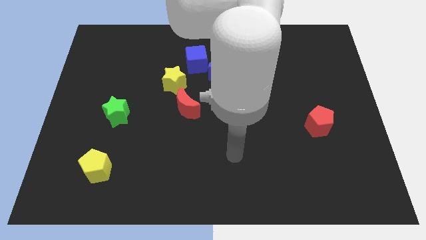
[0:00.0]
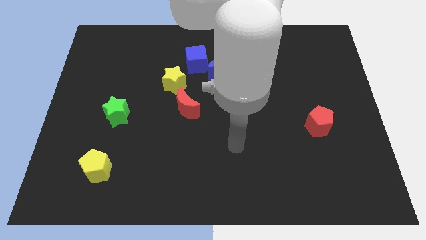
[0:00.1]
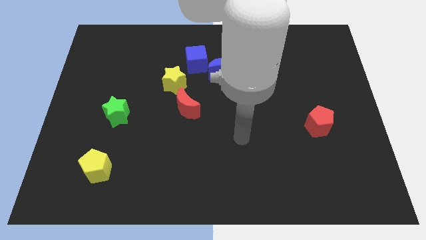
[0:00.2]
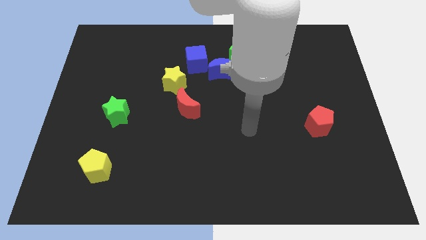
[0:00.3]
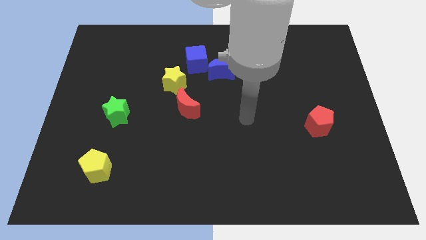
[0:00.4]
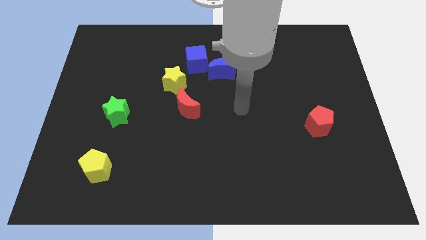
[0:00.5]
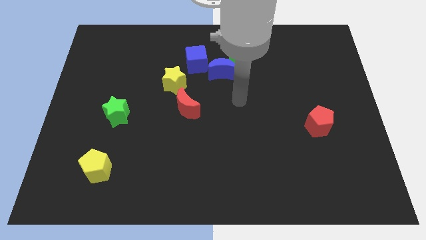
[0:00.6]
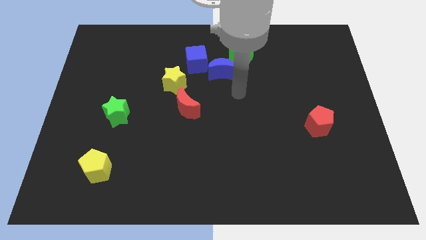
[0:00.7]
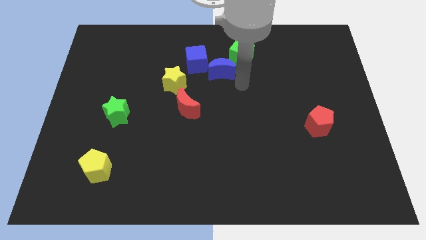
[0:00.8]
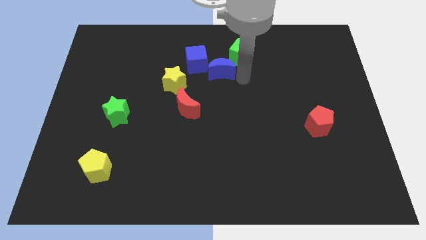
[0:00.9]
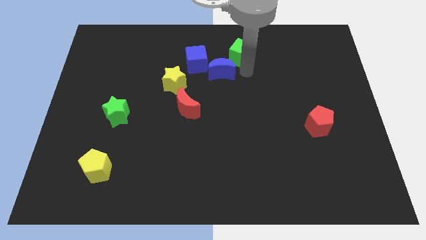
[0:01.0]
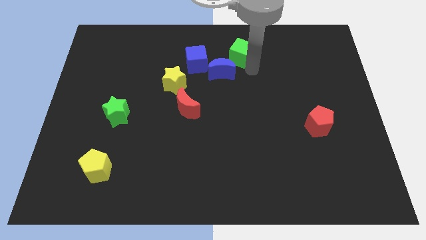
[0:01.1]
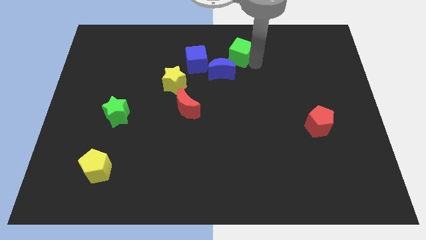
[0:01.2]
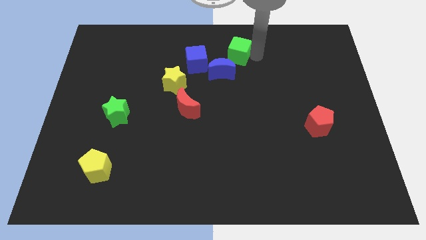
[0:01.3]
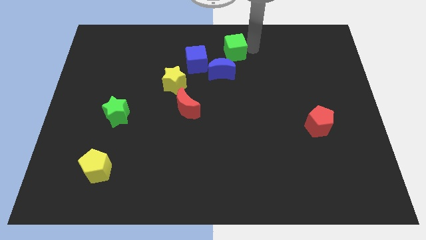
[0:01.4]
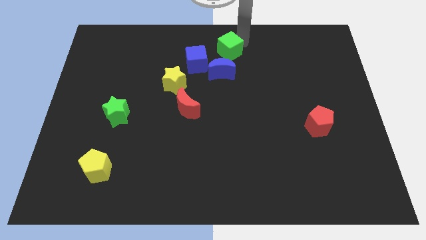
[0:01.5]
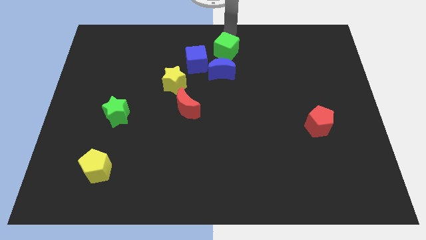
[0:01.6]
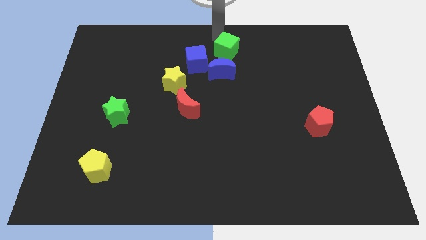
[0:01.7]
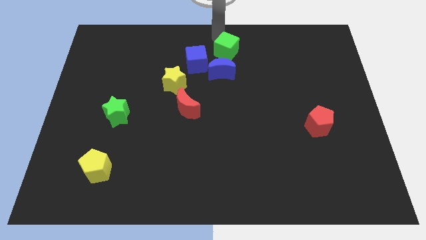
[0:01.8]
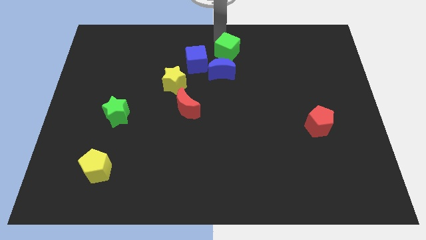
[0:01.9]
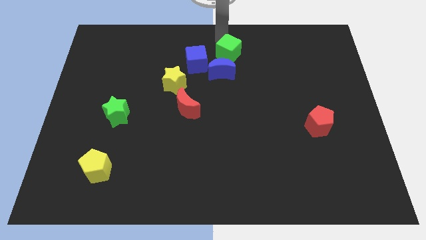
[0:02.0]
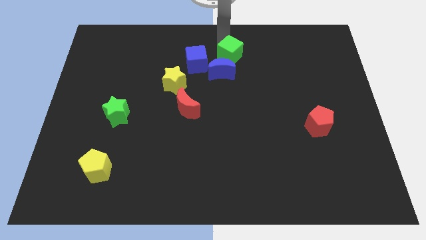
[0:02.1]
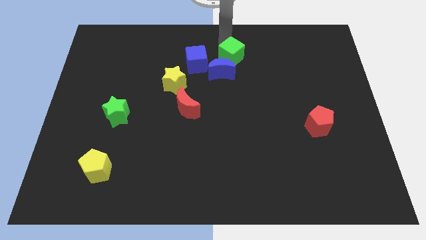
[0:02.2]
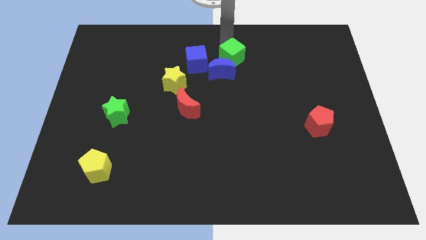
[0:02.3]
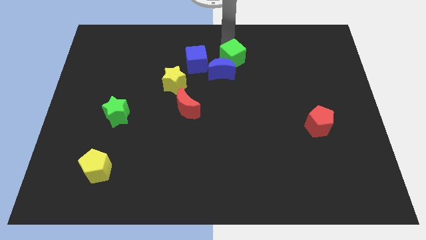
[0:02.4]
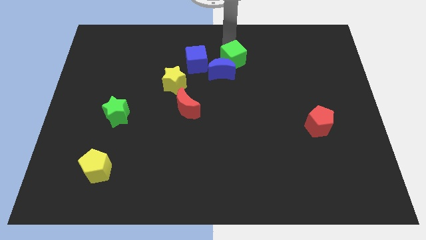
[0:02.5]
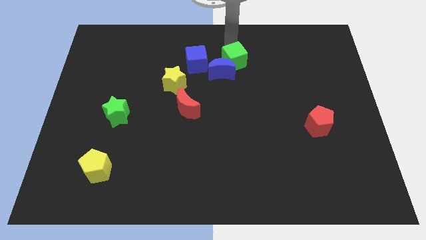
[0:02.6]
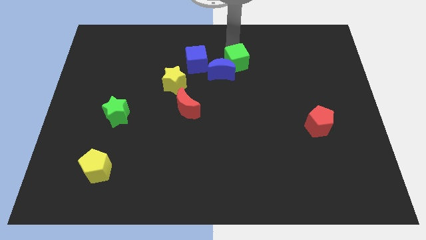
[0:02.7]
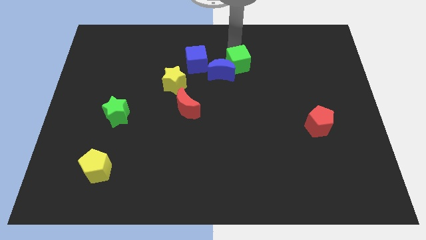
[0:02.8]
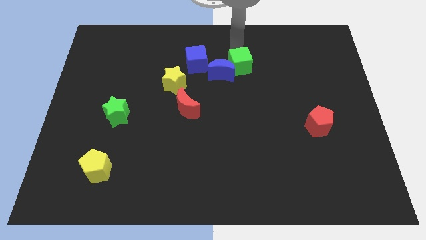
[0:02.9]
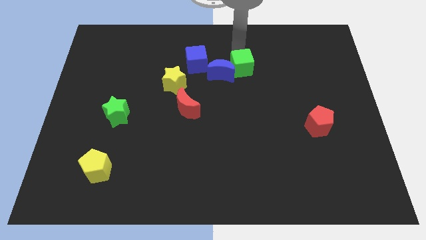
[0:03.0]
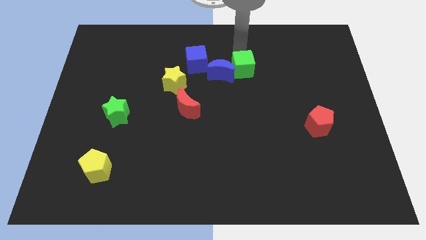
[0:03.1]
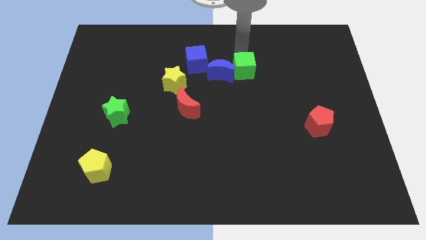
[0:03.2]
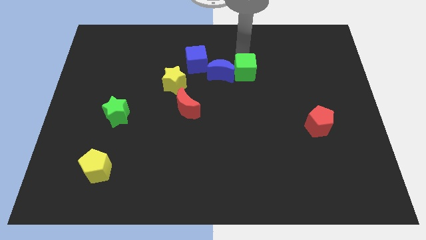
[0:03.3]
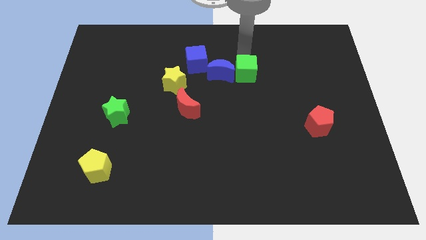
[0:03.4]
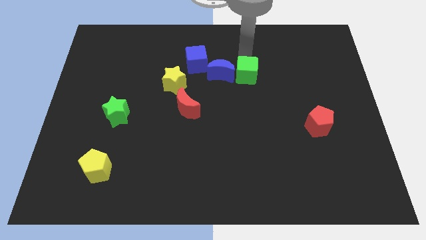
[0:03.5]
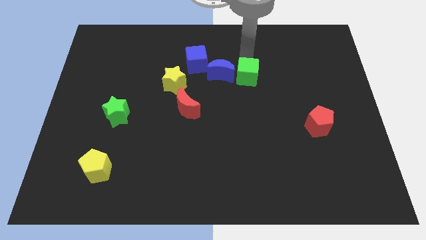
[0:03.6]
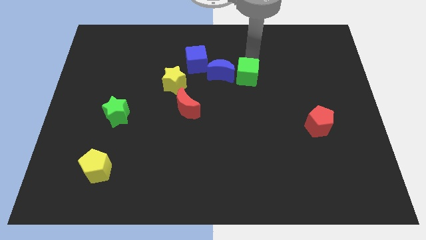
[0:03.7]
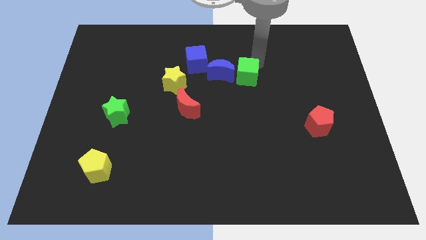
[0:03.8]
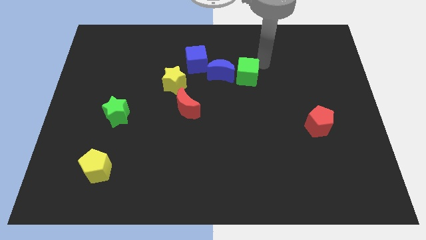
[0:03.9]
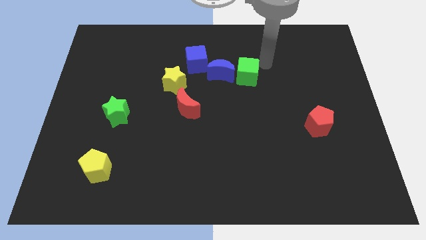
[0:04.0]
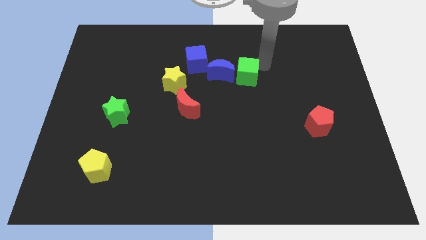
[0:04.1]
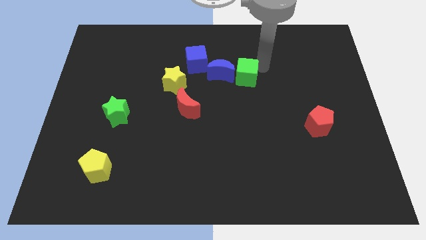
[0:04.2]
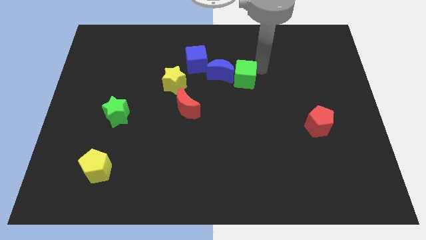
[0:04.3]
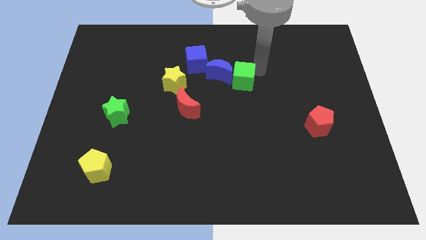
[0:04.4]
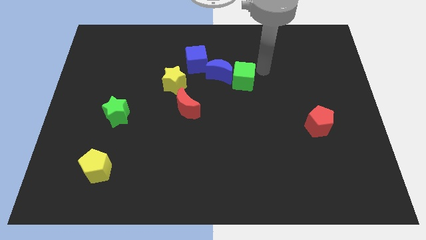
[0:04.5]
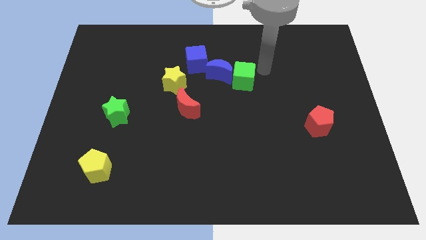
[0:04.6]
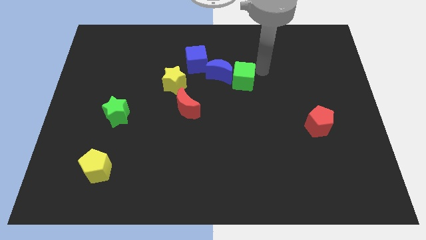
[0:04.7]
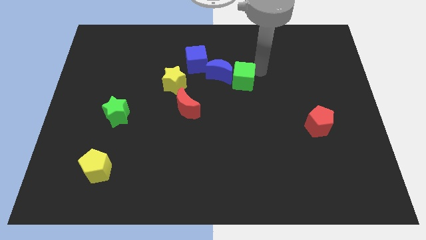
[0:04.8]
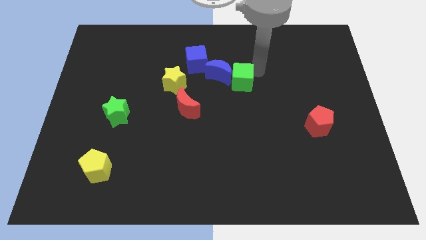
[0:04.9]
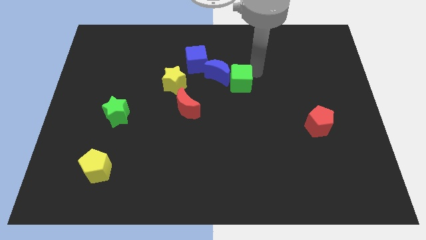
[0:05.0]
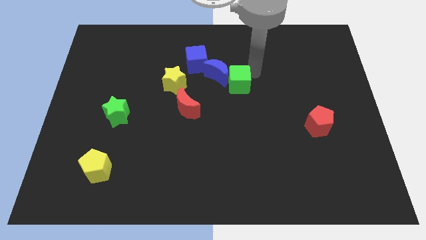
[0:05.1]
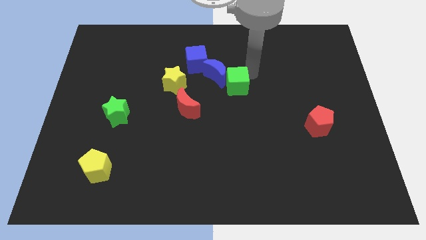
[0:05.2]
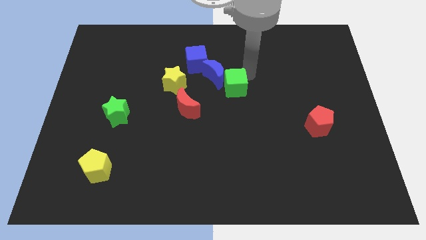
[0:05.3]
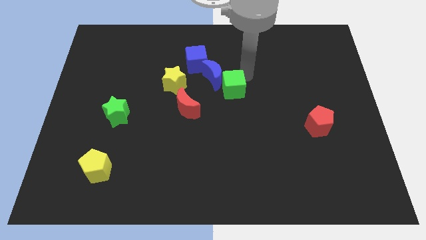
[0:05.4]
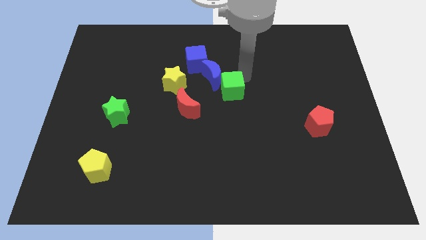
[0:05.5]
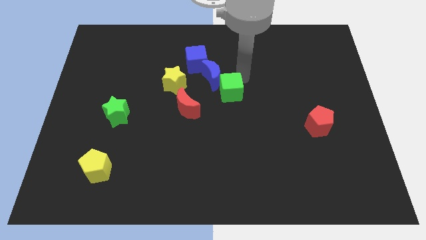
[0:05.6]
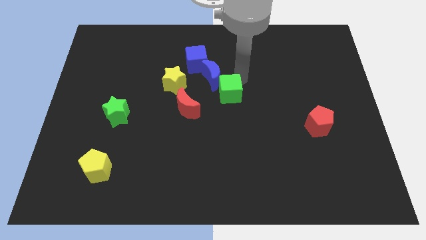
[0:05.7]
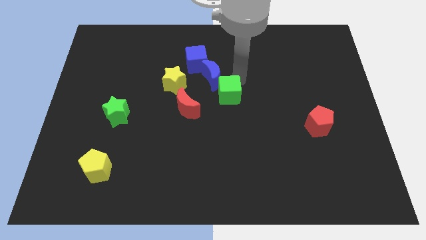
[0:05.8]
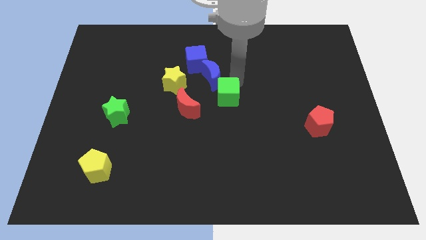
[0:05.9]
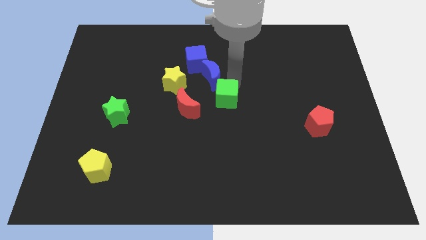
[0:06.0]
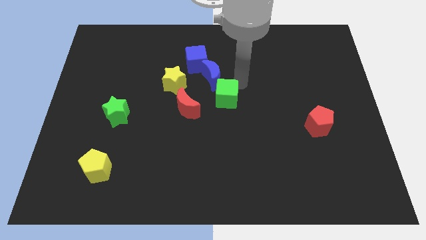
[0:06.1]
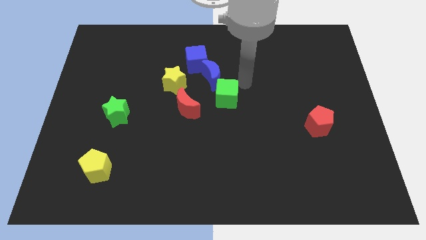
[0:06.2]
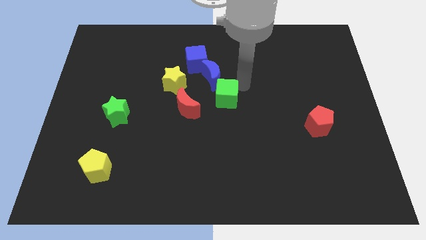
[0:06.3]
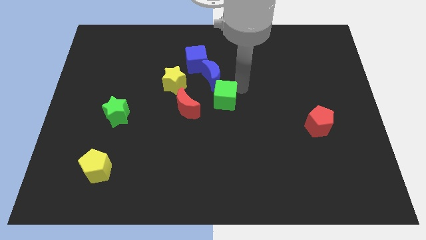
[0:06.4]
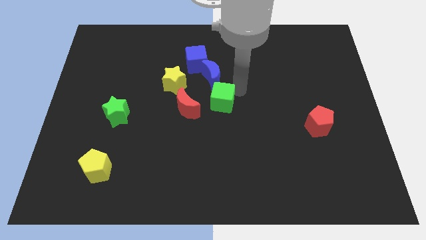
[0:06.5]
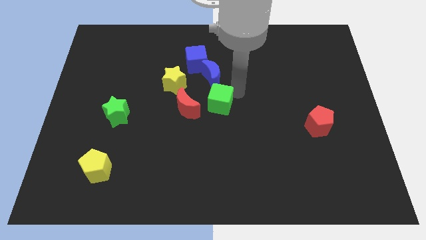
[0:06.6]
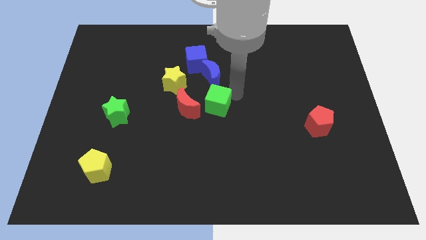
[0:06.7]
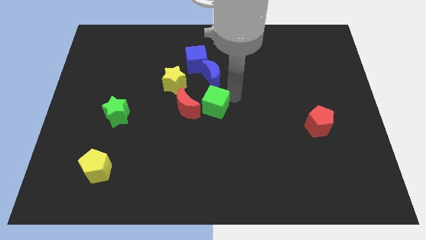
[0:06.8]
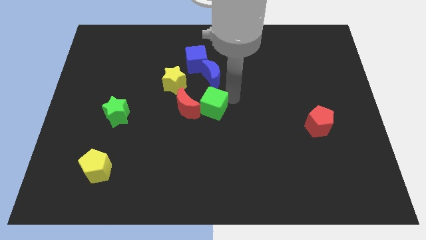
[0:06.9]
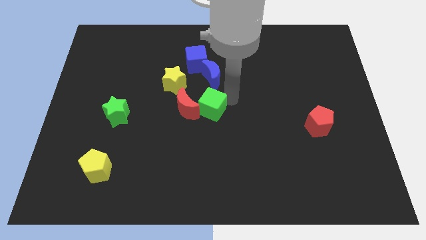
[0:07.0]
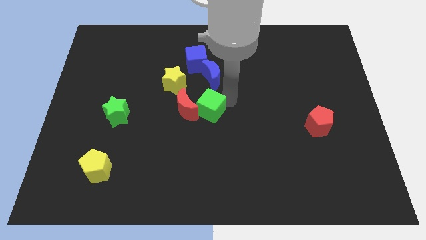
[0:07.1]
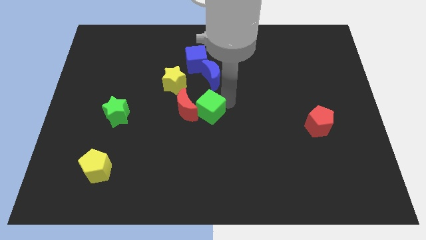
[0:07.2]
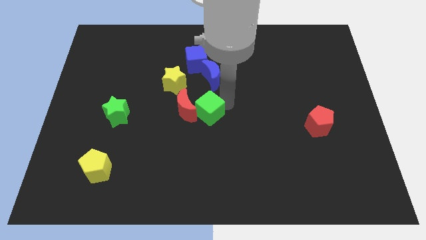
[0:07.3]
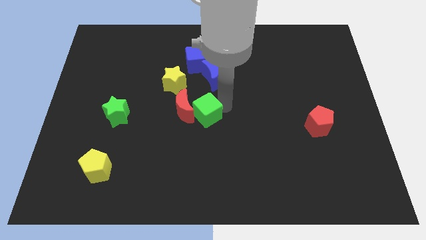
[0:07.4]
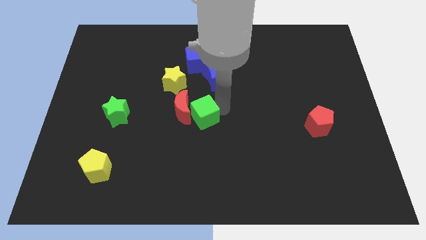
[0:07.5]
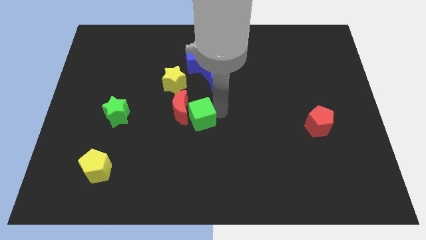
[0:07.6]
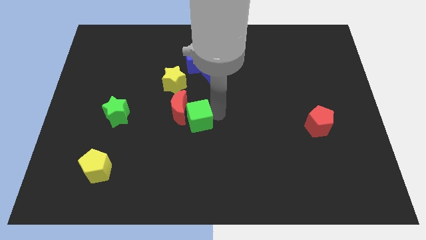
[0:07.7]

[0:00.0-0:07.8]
slide the green cube diagonally down and left
